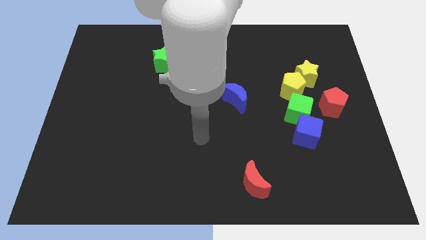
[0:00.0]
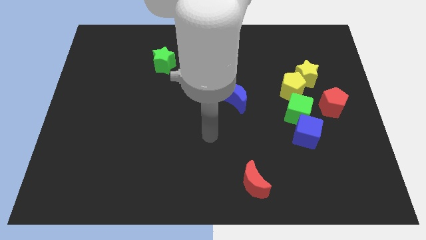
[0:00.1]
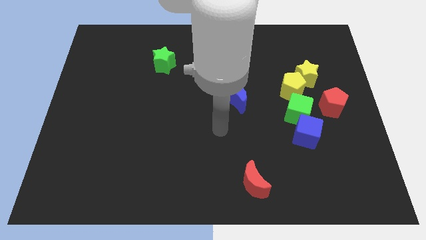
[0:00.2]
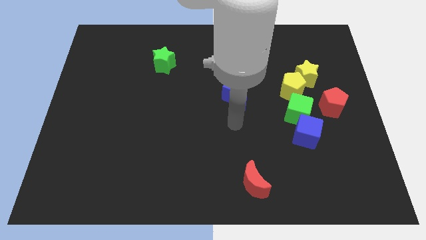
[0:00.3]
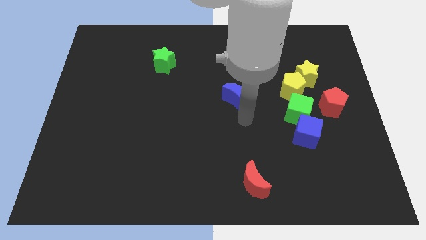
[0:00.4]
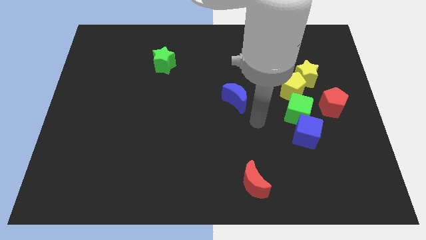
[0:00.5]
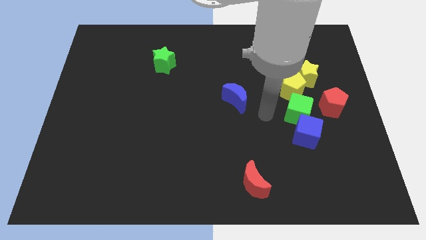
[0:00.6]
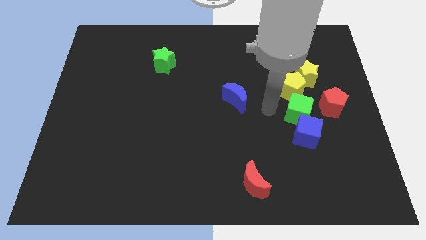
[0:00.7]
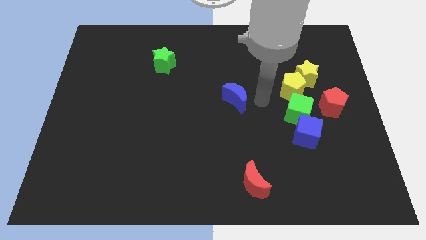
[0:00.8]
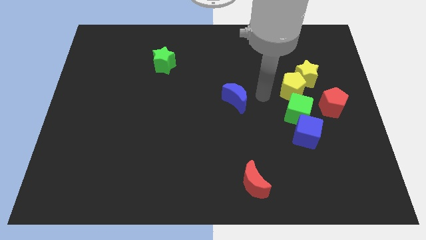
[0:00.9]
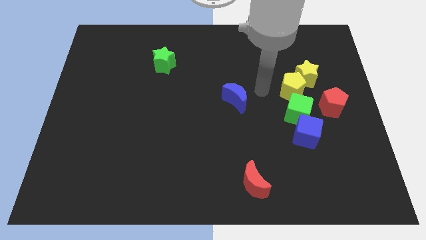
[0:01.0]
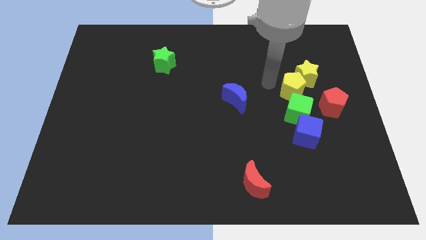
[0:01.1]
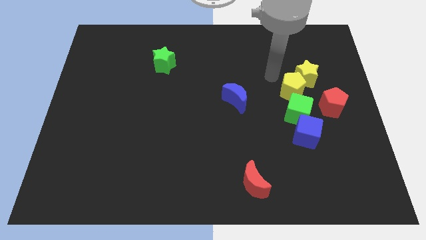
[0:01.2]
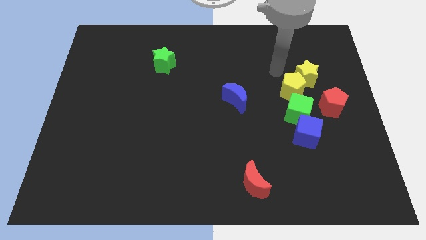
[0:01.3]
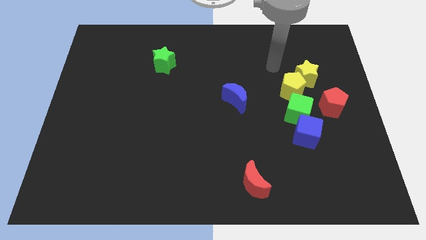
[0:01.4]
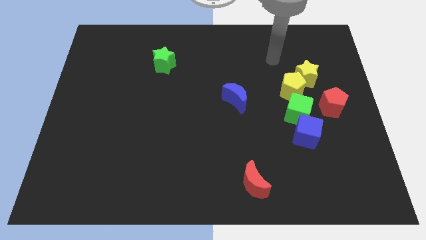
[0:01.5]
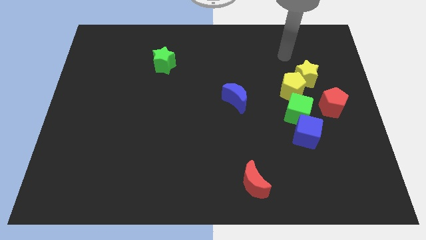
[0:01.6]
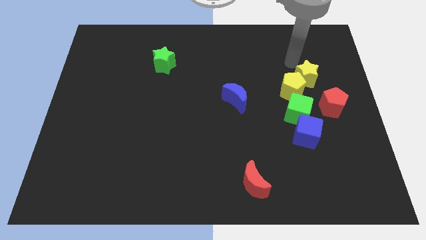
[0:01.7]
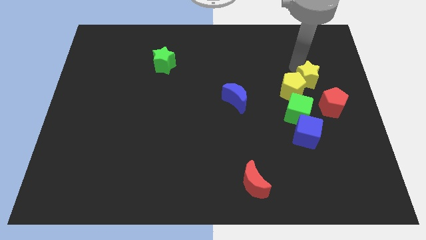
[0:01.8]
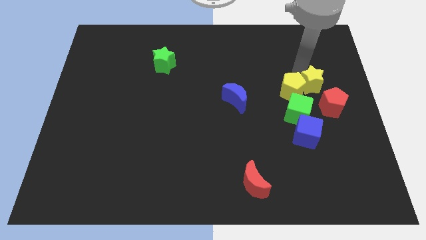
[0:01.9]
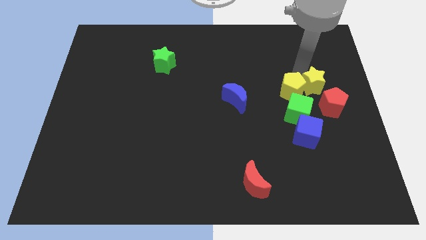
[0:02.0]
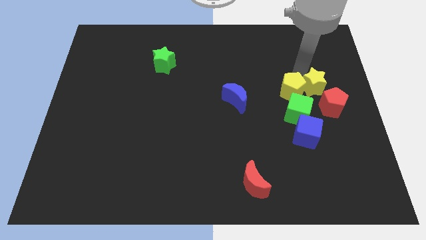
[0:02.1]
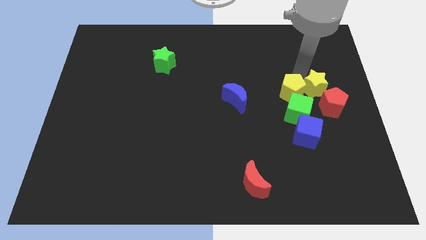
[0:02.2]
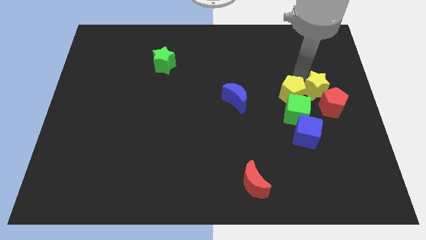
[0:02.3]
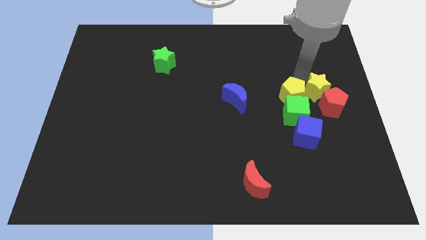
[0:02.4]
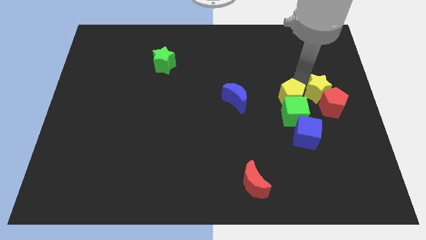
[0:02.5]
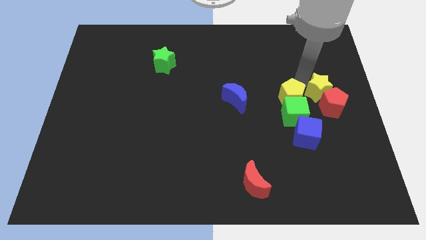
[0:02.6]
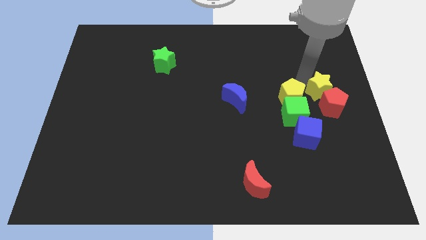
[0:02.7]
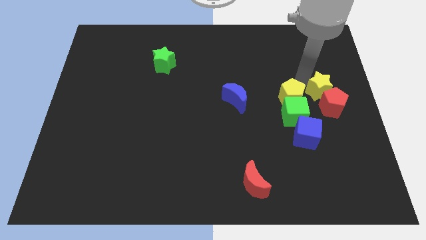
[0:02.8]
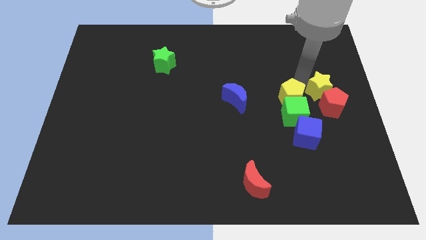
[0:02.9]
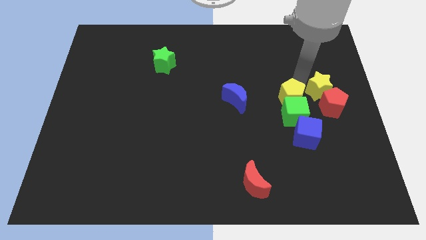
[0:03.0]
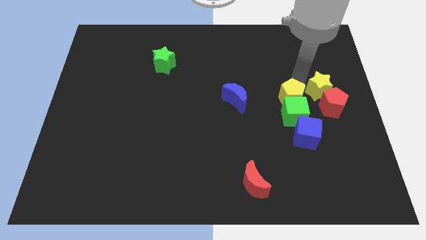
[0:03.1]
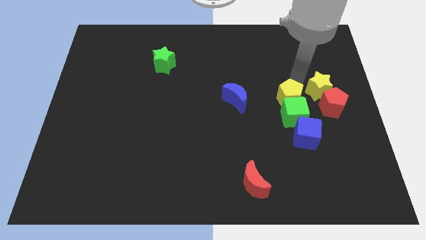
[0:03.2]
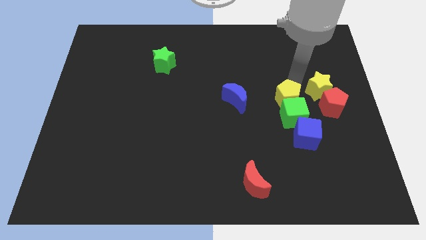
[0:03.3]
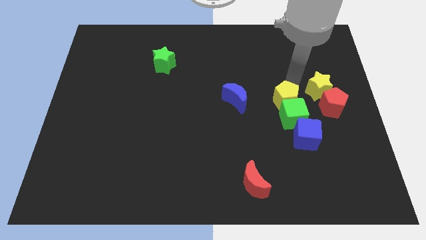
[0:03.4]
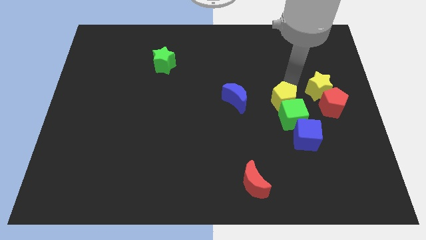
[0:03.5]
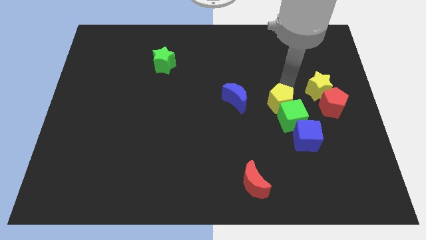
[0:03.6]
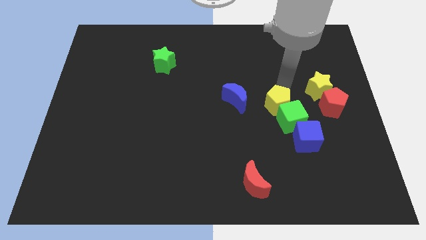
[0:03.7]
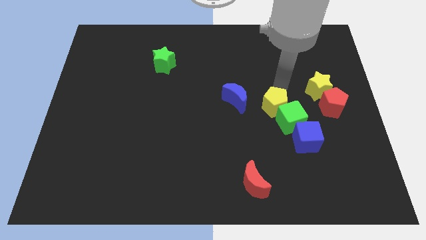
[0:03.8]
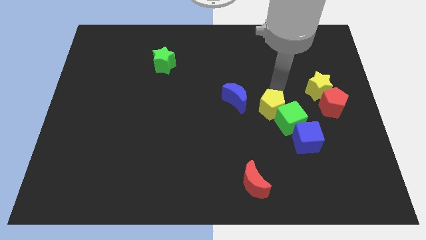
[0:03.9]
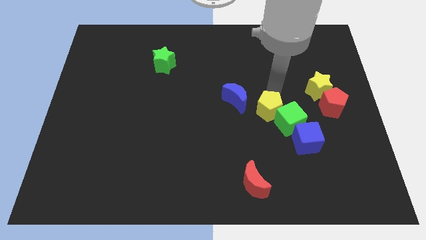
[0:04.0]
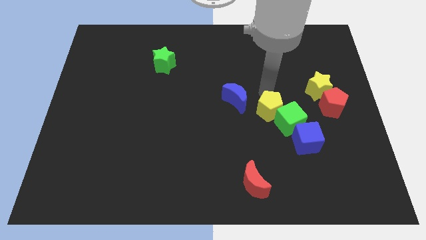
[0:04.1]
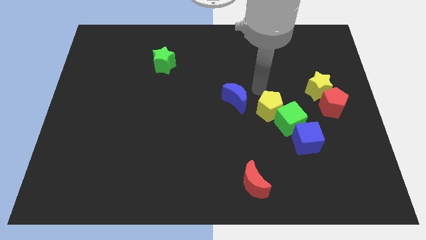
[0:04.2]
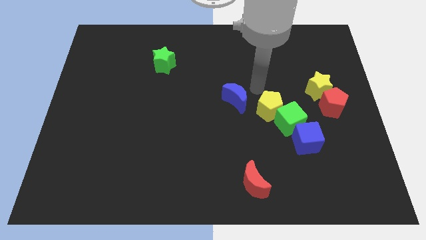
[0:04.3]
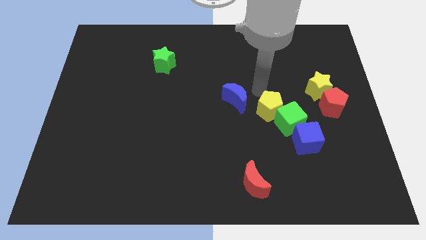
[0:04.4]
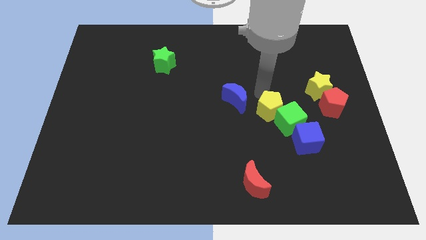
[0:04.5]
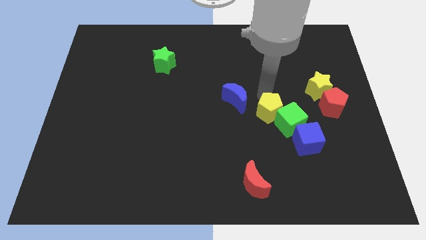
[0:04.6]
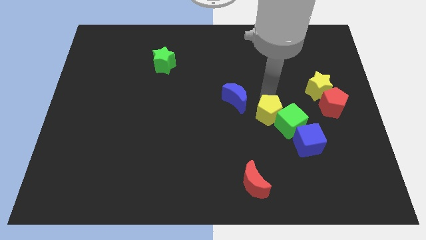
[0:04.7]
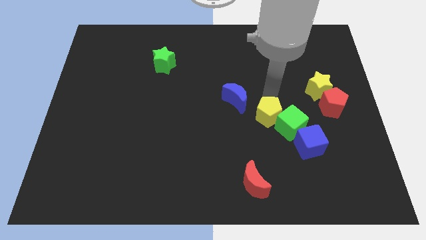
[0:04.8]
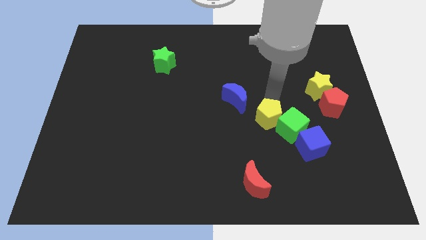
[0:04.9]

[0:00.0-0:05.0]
slightly push the yellow pentagon downwards

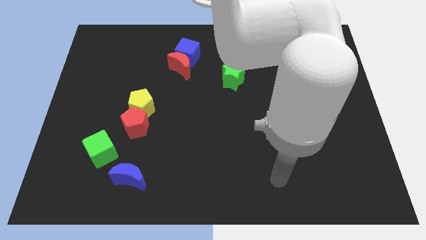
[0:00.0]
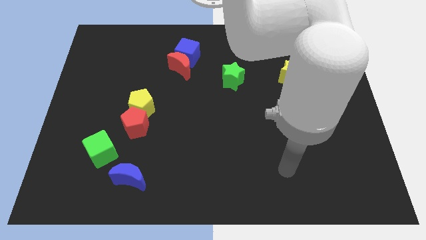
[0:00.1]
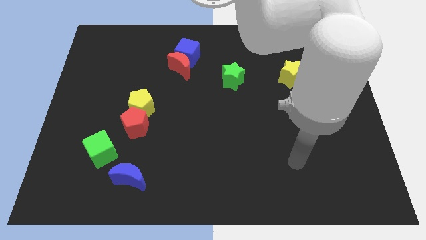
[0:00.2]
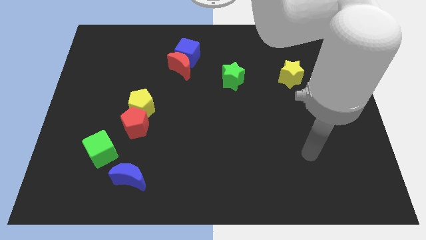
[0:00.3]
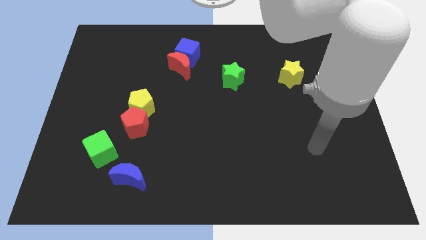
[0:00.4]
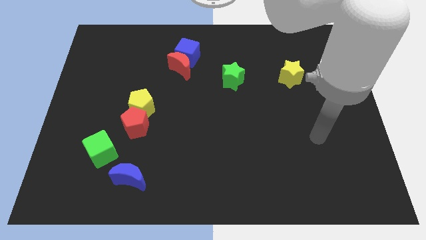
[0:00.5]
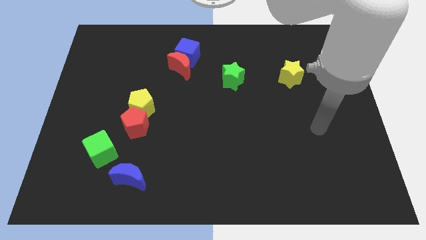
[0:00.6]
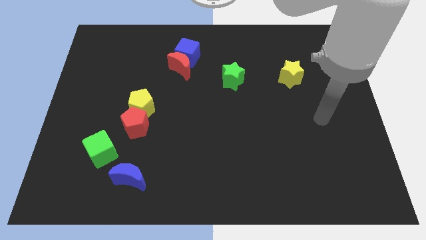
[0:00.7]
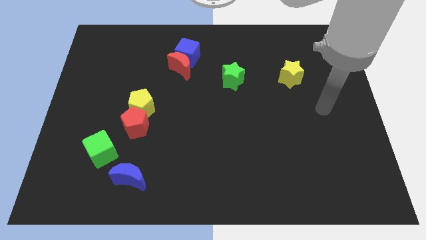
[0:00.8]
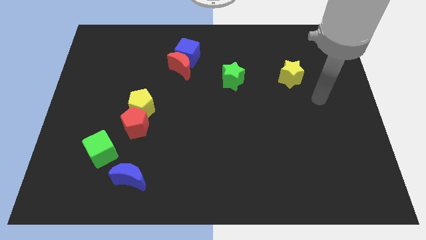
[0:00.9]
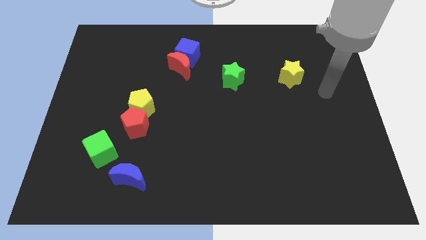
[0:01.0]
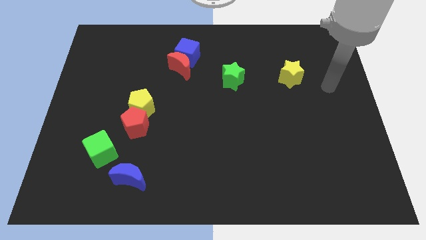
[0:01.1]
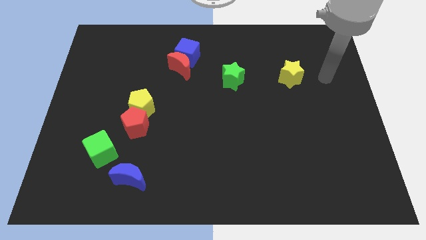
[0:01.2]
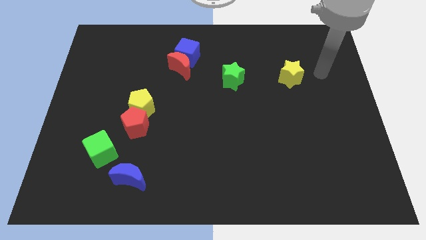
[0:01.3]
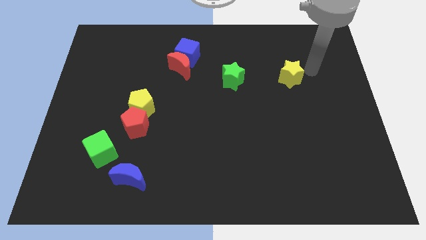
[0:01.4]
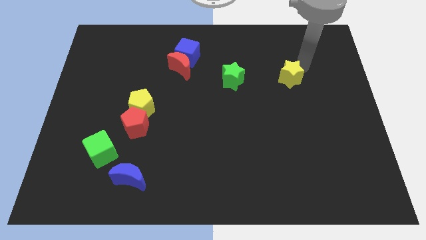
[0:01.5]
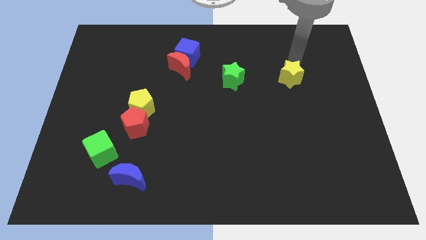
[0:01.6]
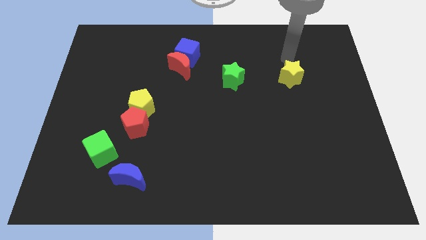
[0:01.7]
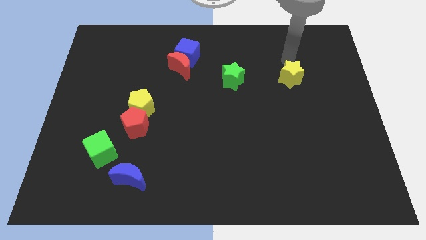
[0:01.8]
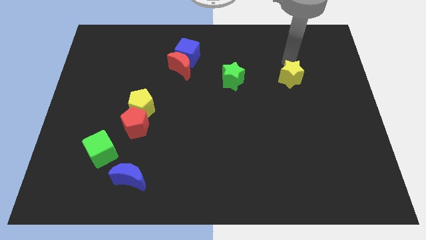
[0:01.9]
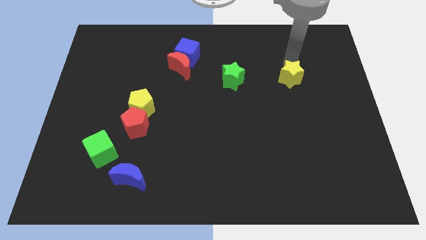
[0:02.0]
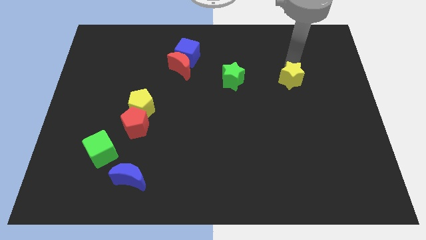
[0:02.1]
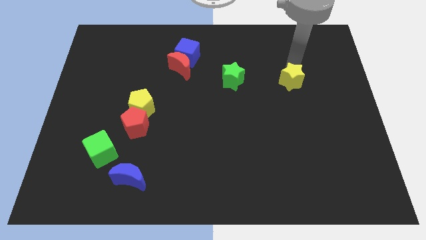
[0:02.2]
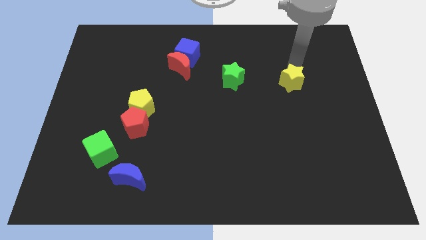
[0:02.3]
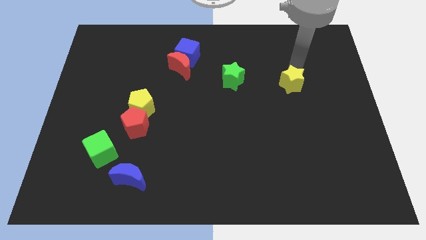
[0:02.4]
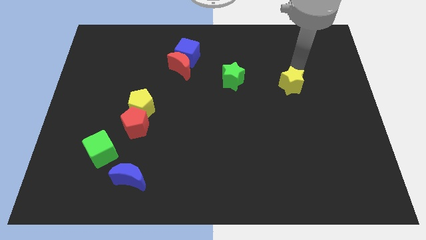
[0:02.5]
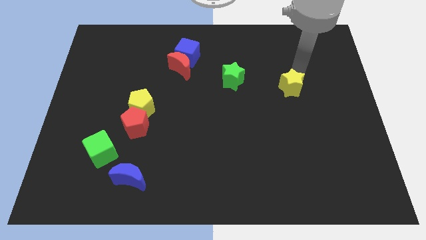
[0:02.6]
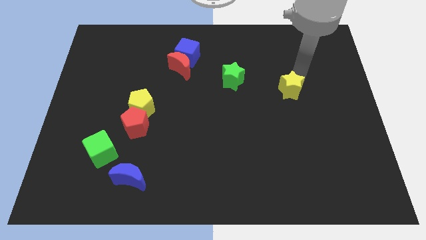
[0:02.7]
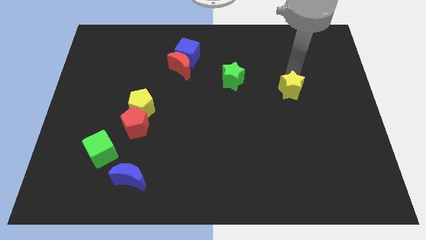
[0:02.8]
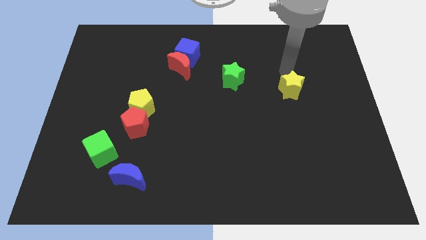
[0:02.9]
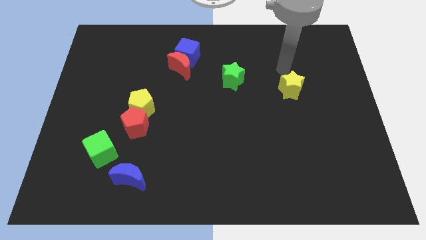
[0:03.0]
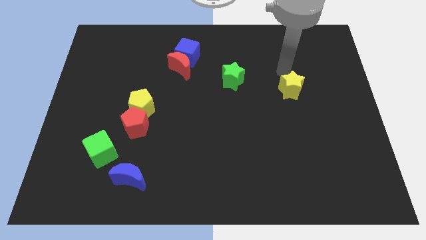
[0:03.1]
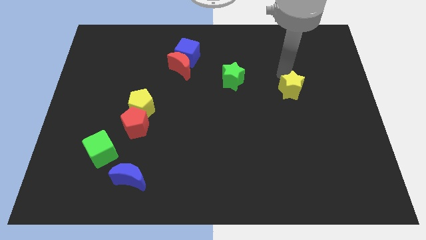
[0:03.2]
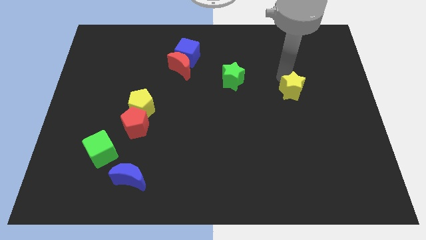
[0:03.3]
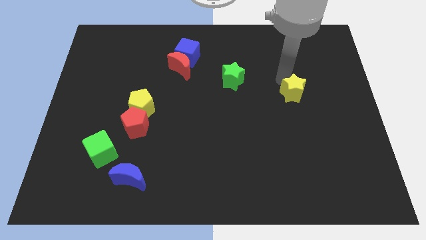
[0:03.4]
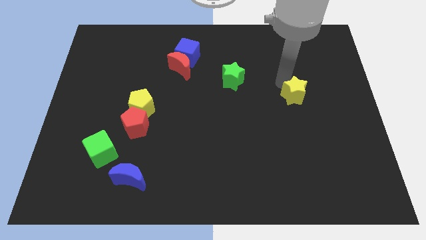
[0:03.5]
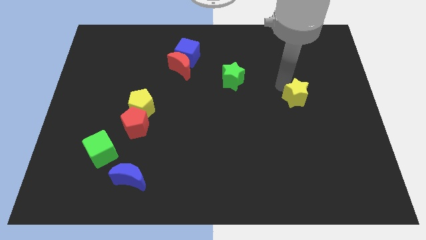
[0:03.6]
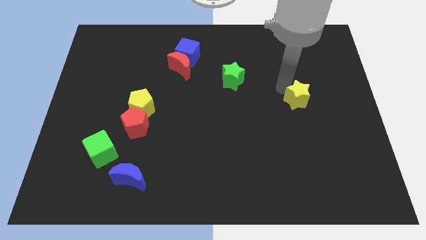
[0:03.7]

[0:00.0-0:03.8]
move the yellow star somewhat down
